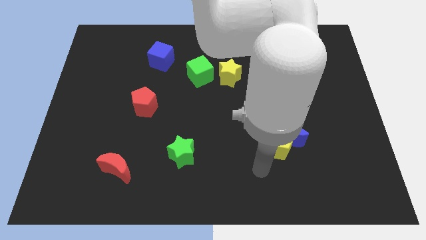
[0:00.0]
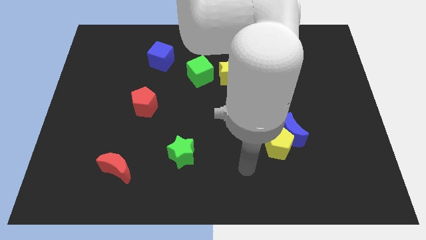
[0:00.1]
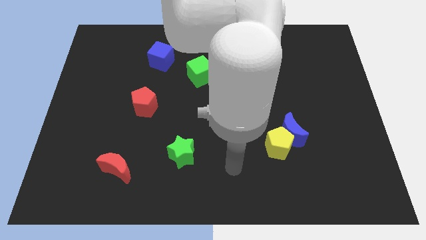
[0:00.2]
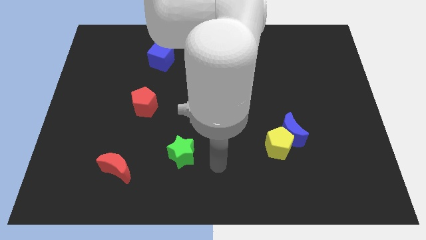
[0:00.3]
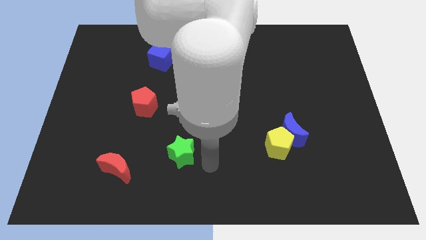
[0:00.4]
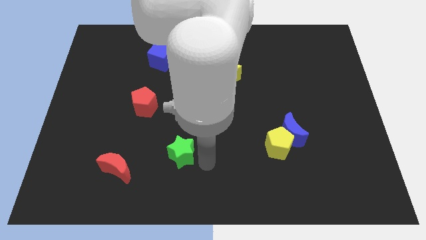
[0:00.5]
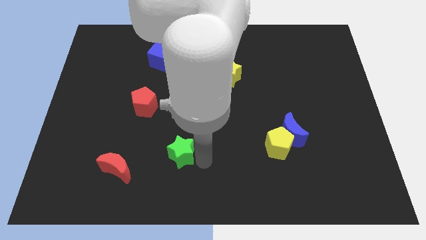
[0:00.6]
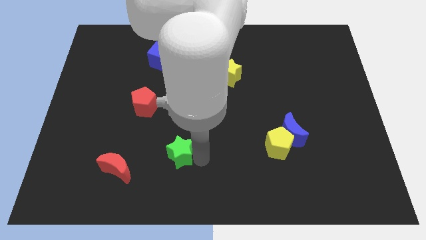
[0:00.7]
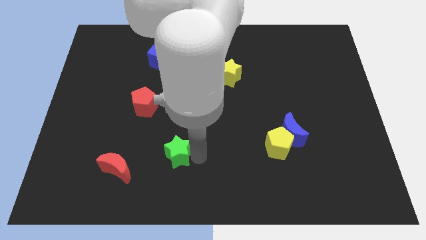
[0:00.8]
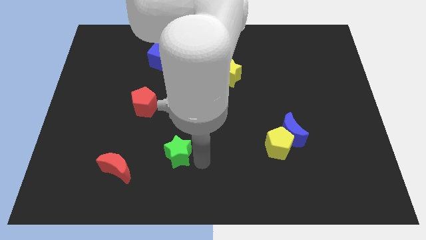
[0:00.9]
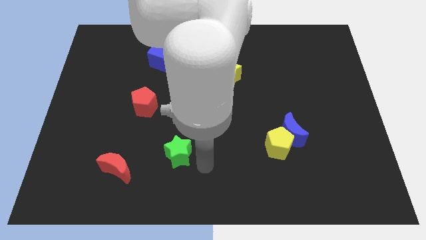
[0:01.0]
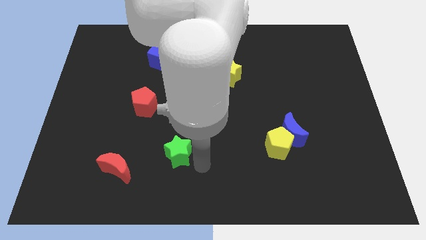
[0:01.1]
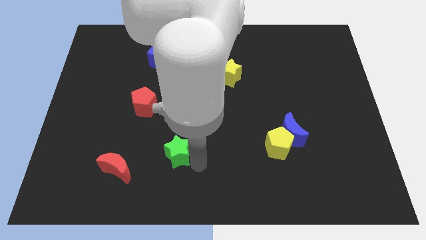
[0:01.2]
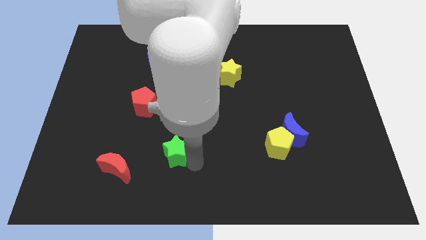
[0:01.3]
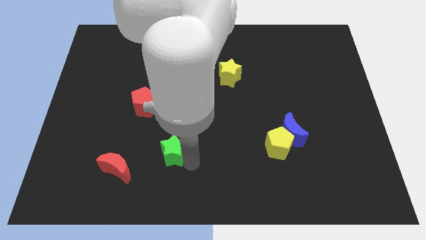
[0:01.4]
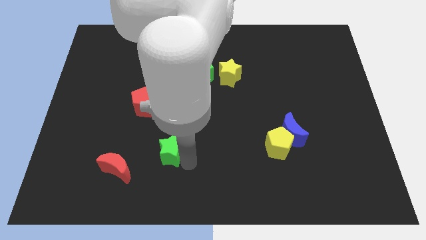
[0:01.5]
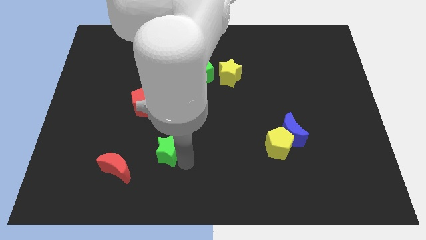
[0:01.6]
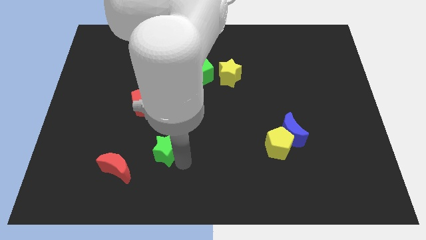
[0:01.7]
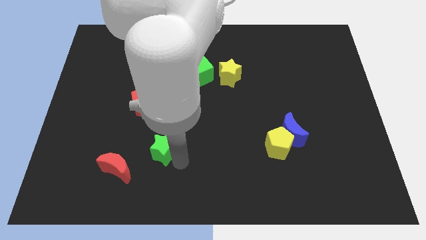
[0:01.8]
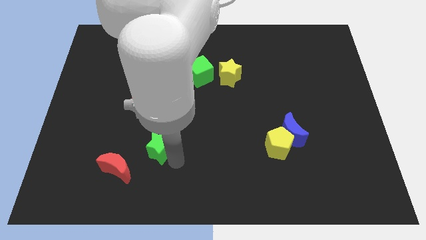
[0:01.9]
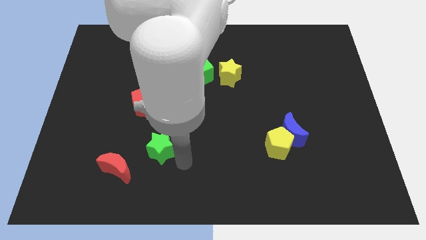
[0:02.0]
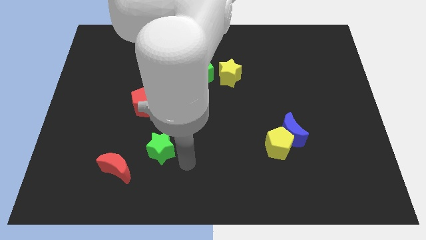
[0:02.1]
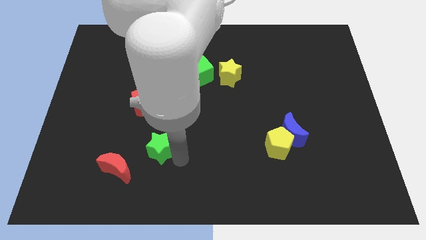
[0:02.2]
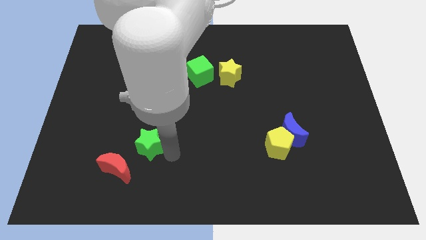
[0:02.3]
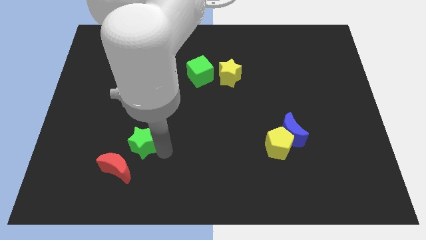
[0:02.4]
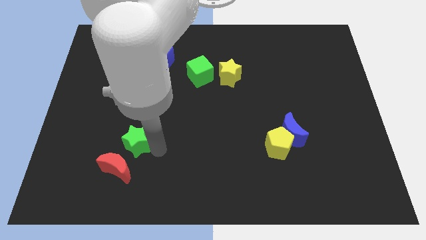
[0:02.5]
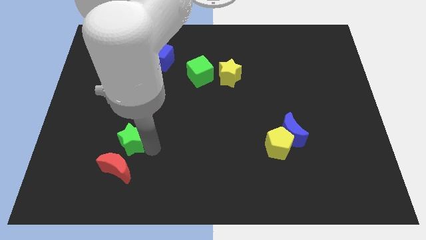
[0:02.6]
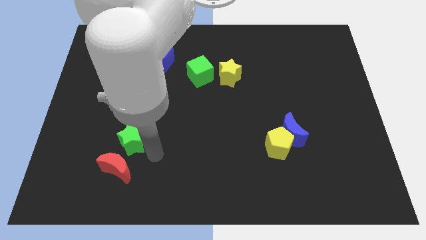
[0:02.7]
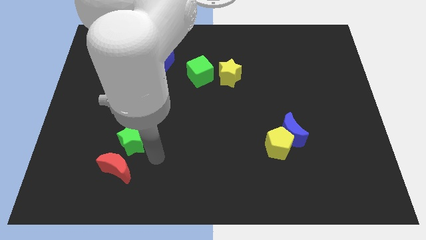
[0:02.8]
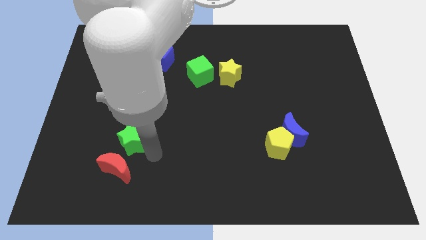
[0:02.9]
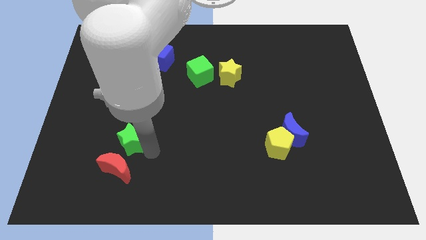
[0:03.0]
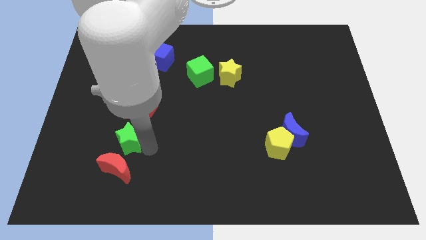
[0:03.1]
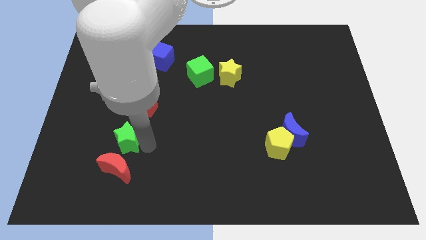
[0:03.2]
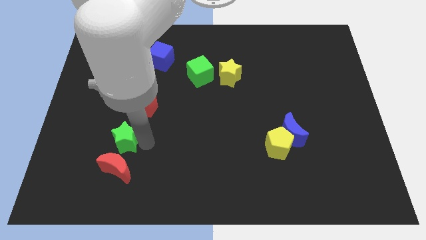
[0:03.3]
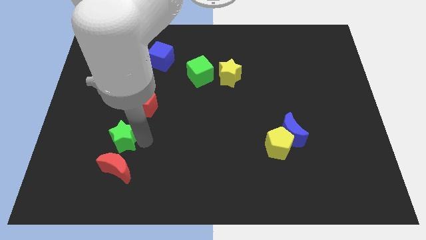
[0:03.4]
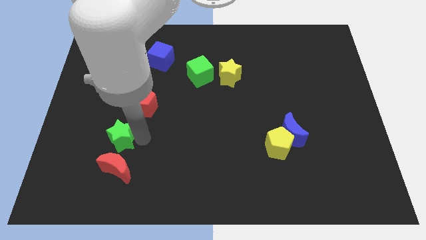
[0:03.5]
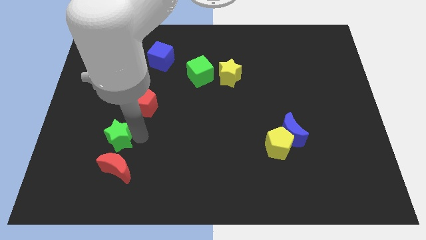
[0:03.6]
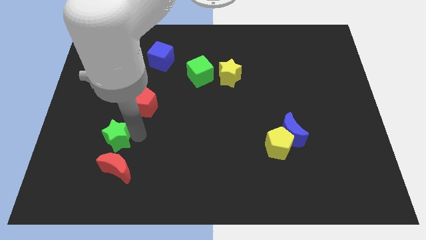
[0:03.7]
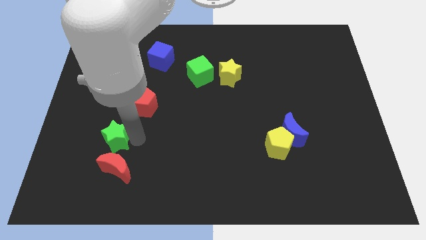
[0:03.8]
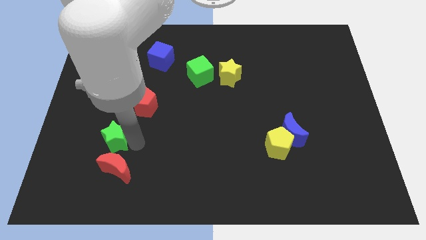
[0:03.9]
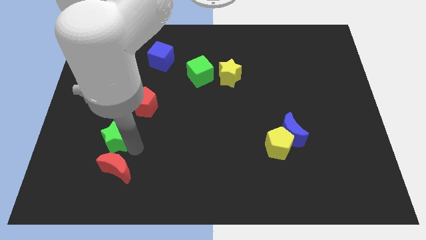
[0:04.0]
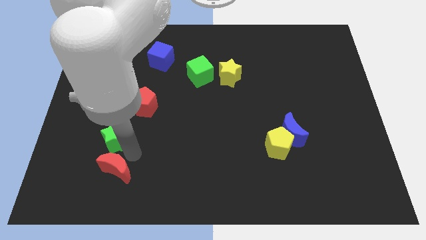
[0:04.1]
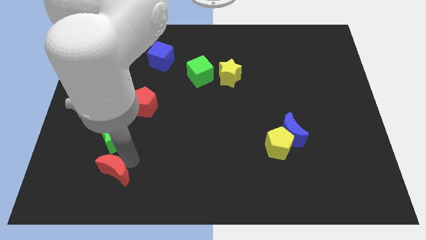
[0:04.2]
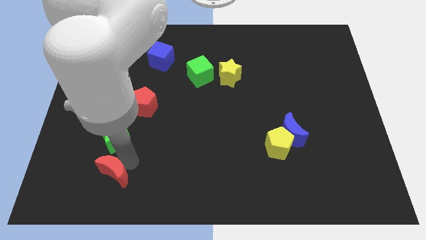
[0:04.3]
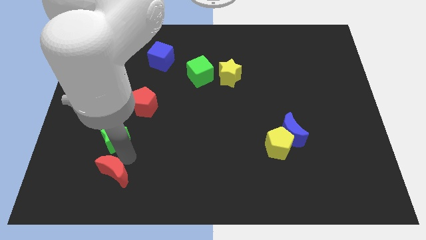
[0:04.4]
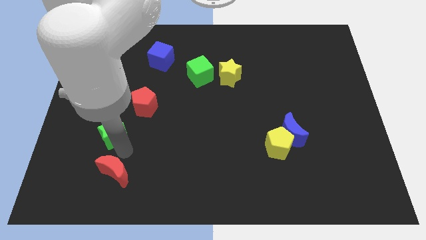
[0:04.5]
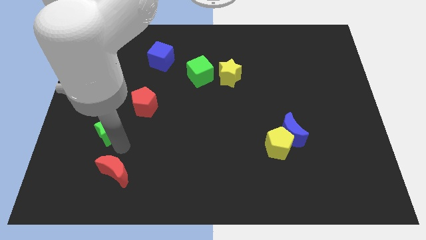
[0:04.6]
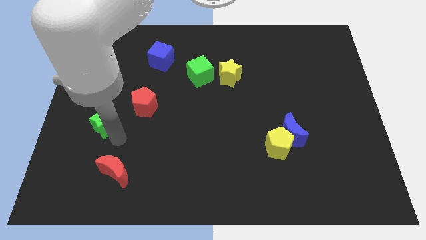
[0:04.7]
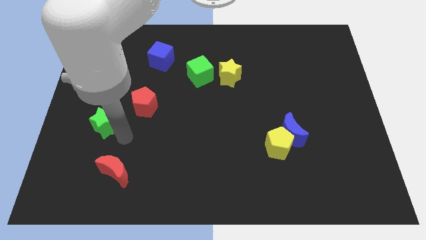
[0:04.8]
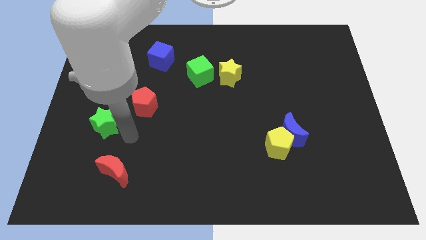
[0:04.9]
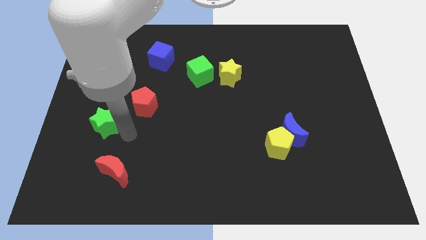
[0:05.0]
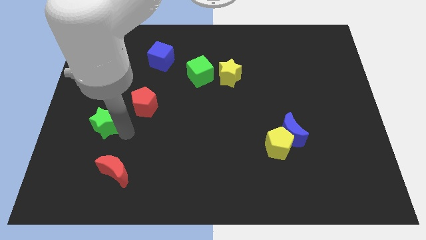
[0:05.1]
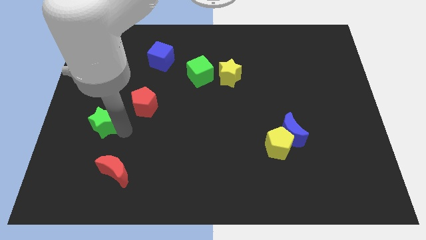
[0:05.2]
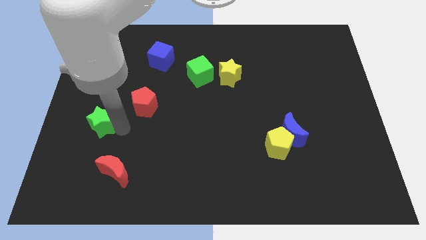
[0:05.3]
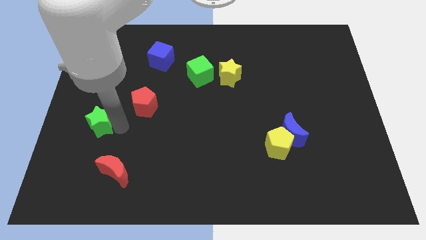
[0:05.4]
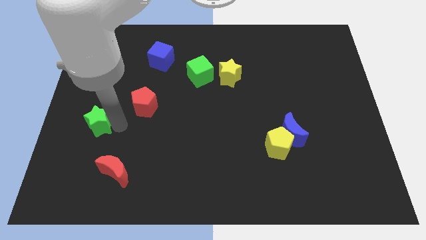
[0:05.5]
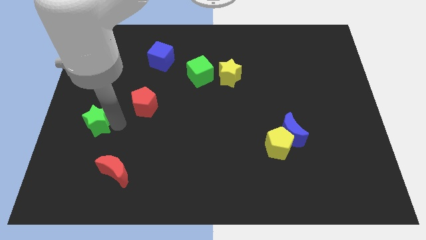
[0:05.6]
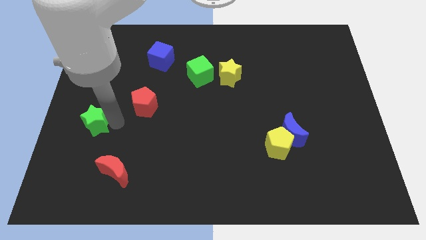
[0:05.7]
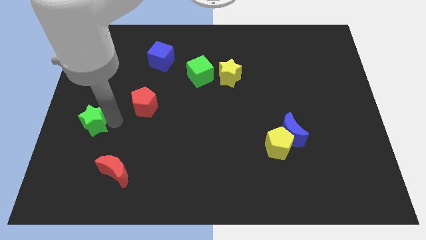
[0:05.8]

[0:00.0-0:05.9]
push the green star to the left side of the board

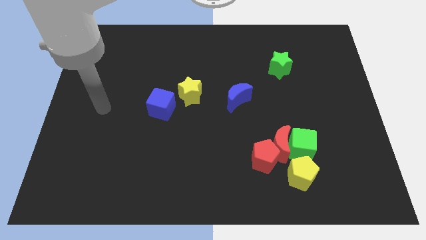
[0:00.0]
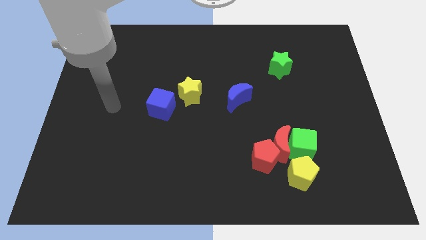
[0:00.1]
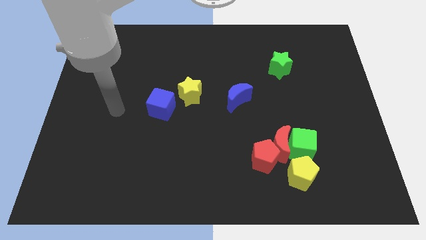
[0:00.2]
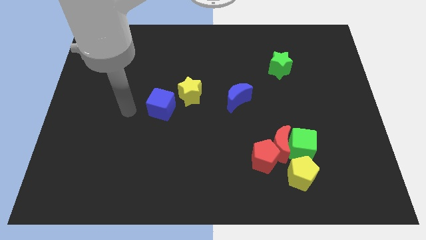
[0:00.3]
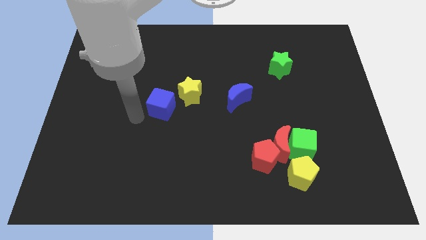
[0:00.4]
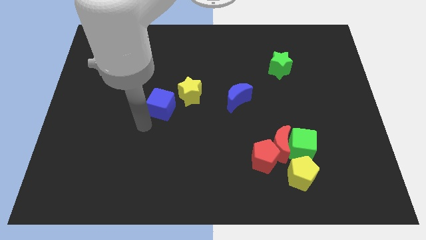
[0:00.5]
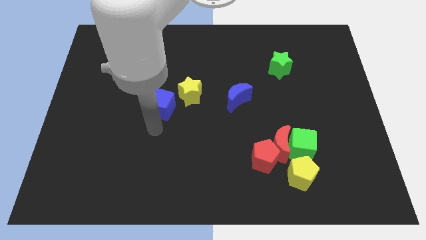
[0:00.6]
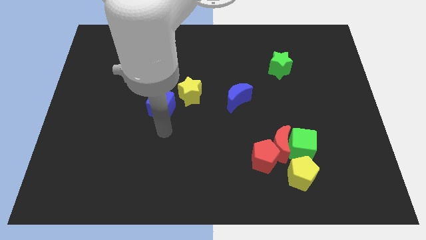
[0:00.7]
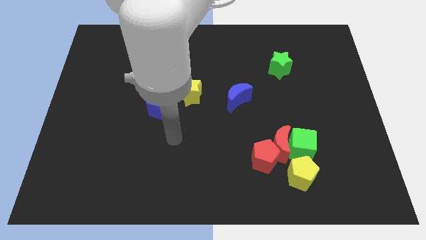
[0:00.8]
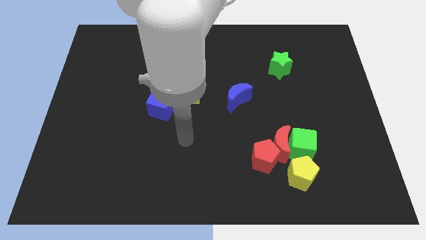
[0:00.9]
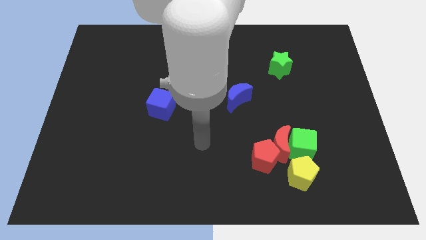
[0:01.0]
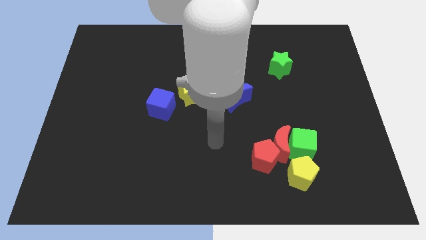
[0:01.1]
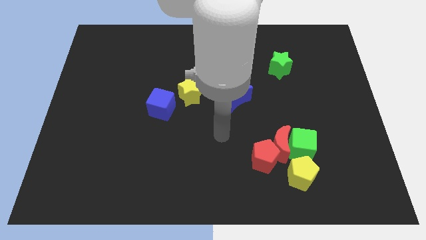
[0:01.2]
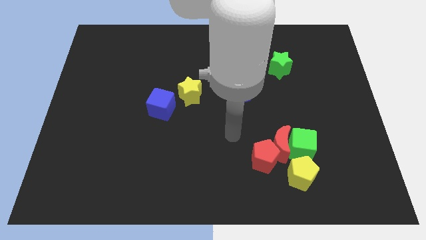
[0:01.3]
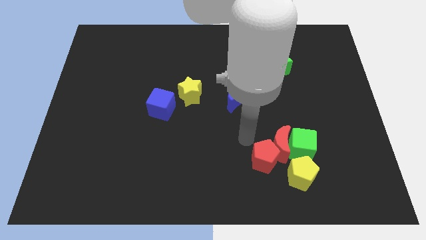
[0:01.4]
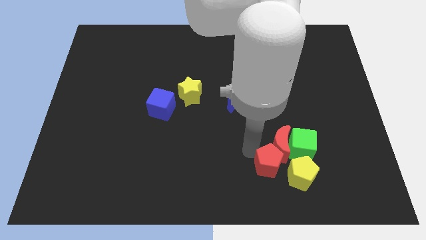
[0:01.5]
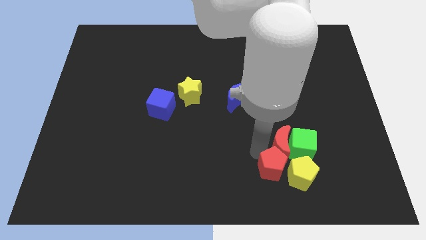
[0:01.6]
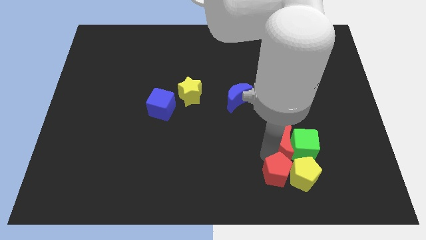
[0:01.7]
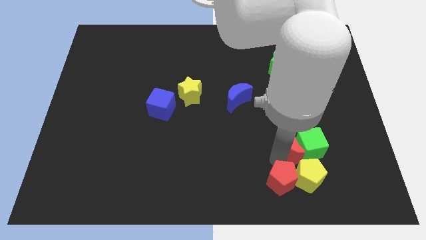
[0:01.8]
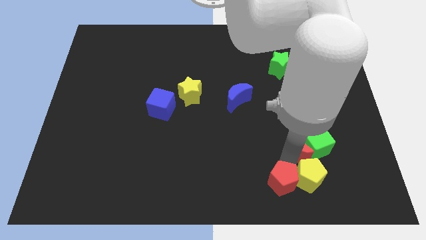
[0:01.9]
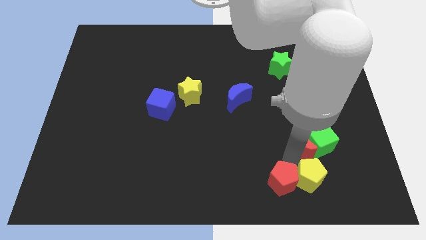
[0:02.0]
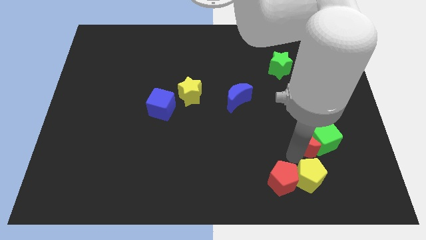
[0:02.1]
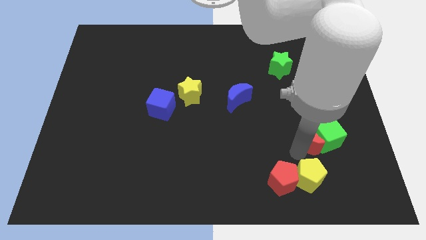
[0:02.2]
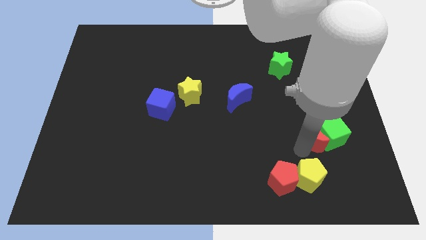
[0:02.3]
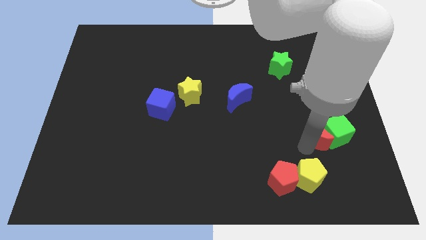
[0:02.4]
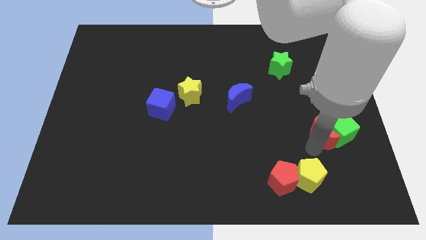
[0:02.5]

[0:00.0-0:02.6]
put the green cube to the center right
